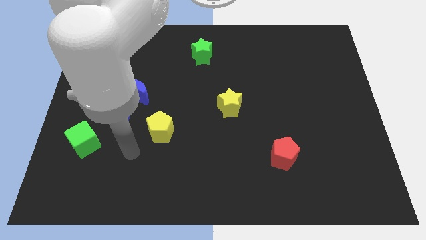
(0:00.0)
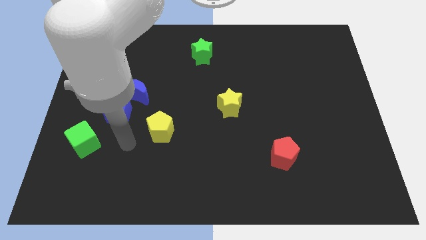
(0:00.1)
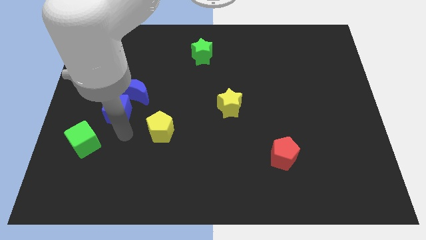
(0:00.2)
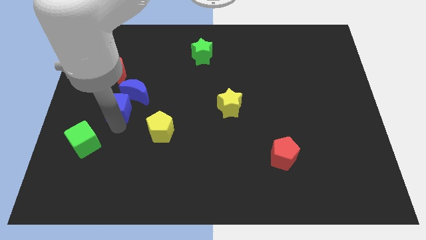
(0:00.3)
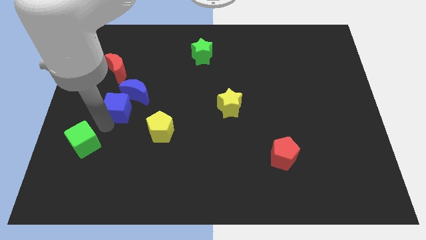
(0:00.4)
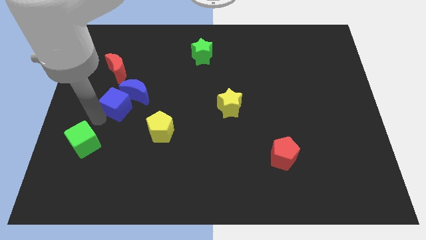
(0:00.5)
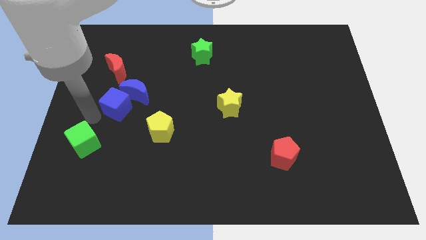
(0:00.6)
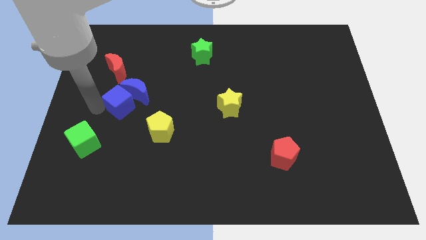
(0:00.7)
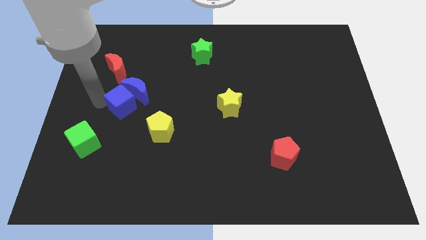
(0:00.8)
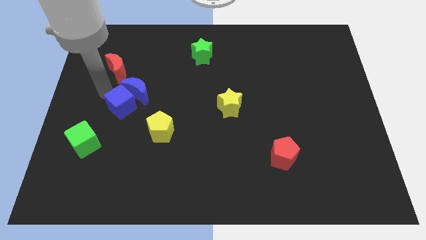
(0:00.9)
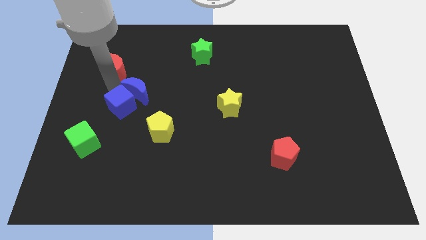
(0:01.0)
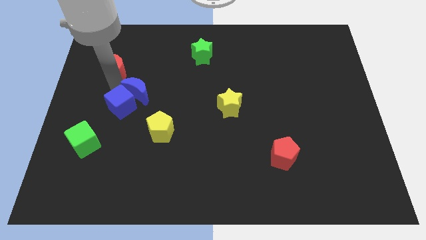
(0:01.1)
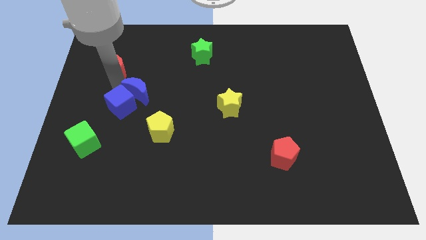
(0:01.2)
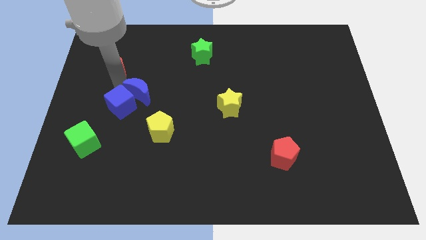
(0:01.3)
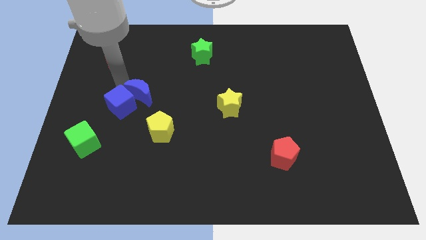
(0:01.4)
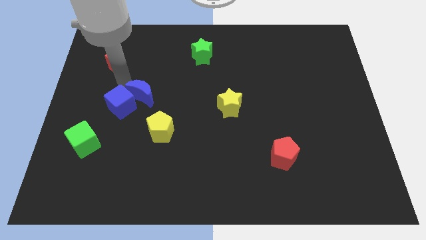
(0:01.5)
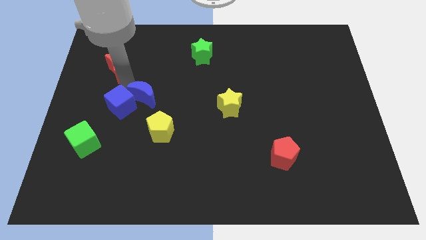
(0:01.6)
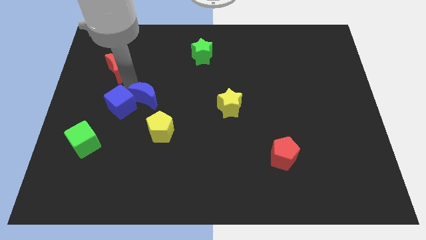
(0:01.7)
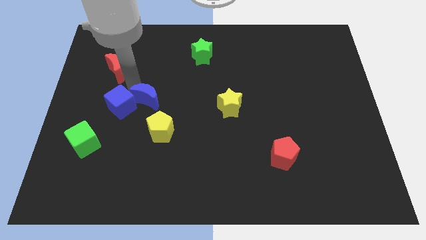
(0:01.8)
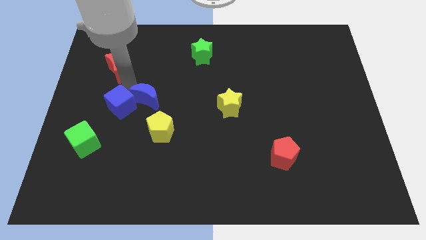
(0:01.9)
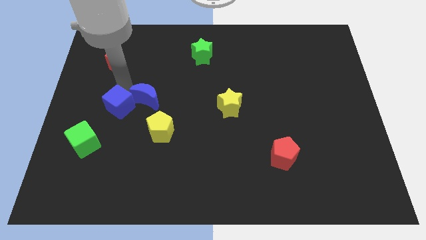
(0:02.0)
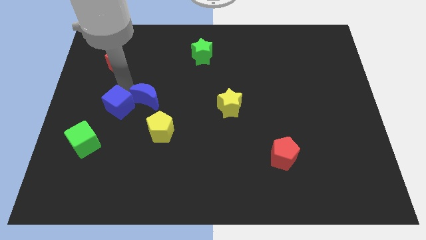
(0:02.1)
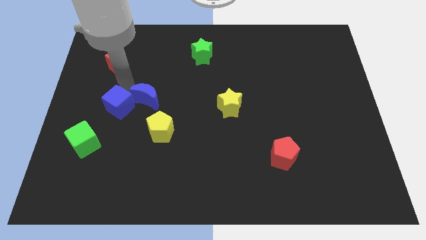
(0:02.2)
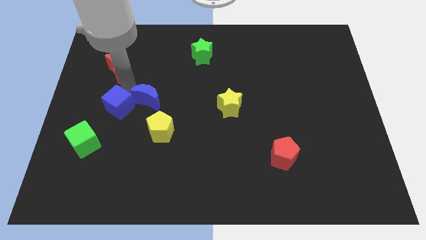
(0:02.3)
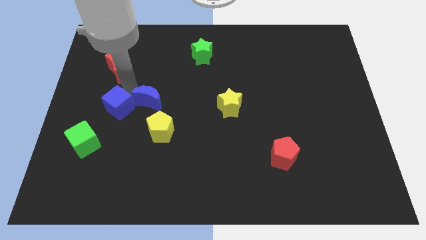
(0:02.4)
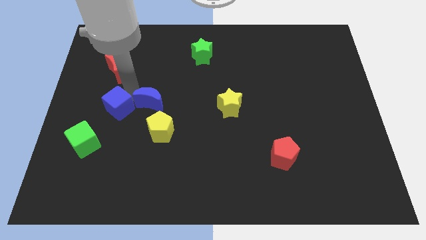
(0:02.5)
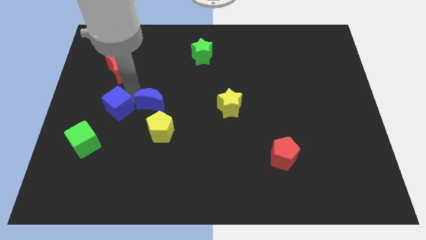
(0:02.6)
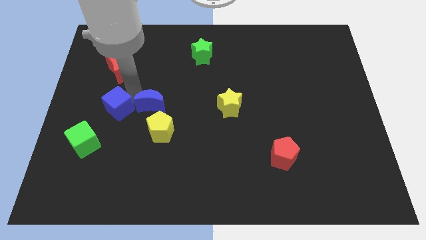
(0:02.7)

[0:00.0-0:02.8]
separate the blue moon from the blue cube and red moon

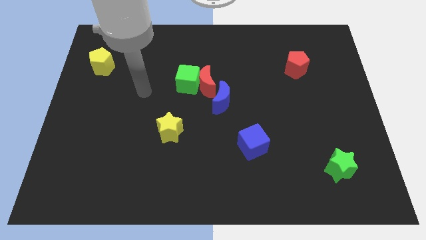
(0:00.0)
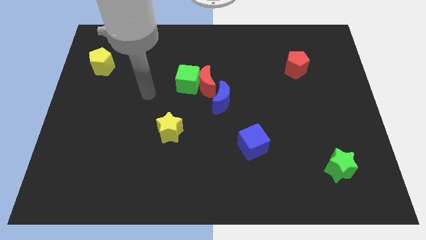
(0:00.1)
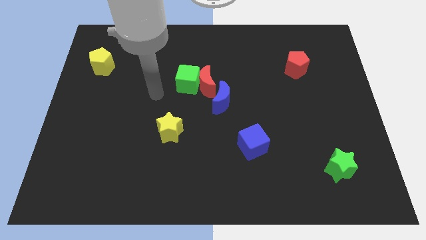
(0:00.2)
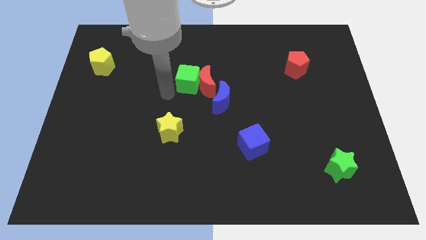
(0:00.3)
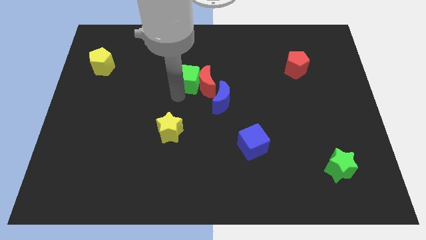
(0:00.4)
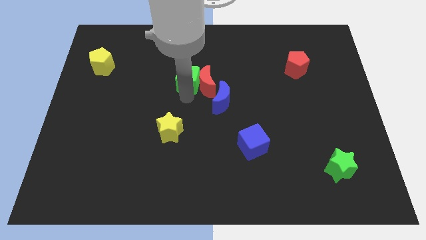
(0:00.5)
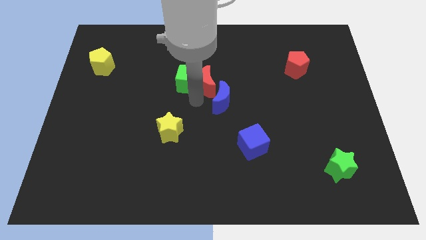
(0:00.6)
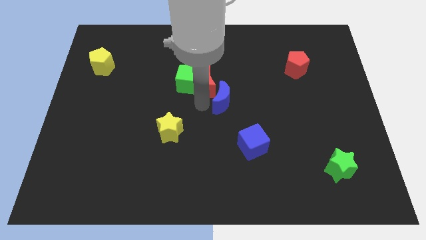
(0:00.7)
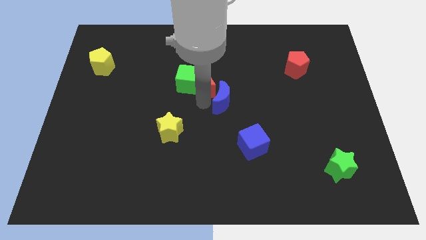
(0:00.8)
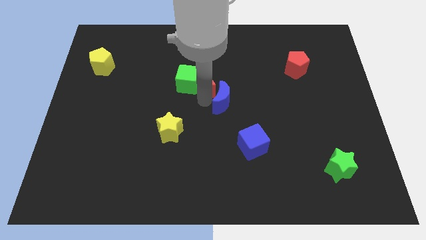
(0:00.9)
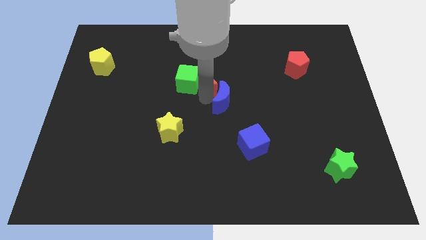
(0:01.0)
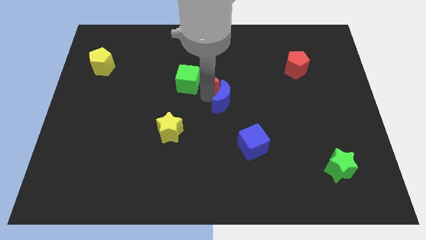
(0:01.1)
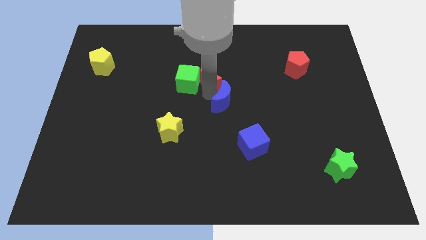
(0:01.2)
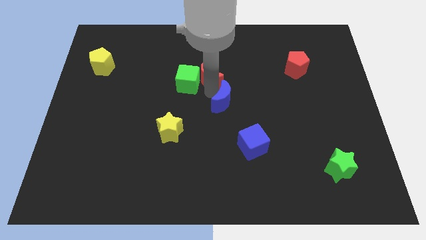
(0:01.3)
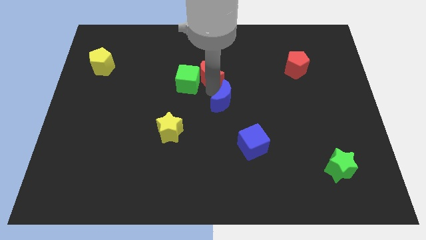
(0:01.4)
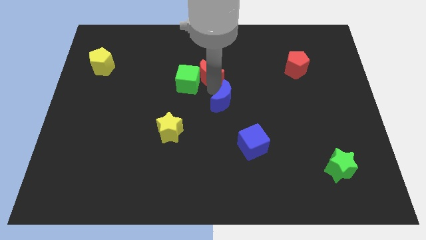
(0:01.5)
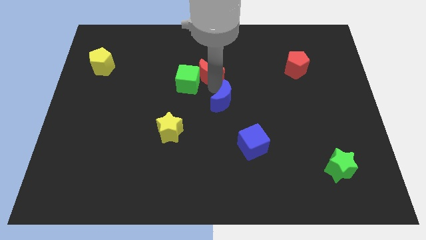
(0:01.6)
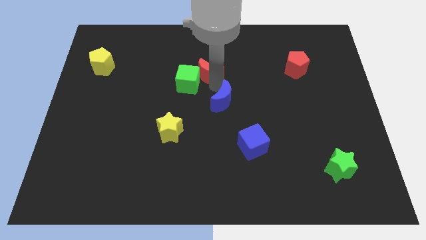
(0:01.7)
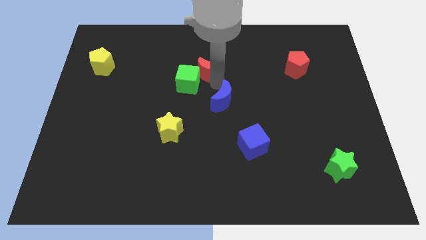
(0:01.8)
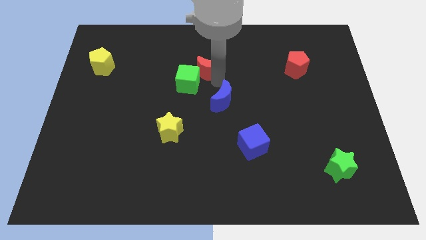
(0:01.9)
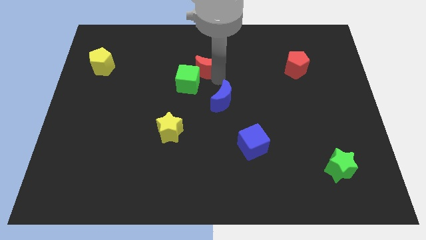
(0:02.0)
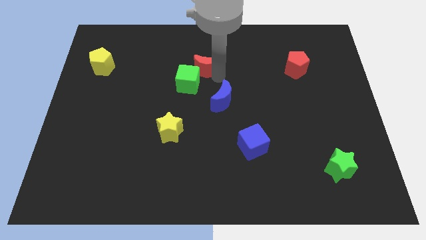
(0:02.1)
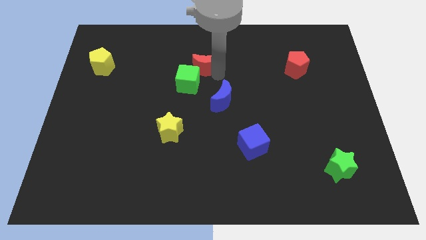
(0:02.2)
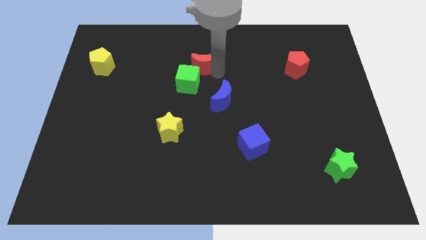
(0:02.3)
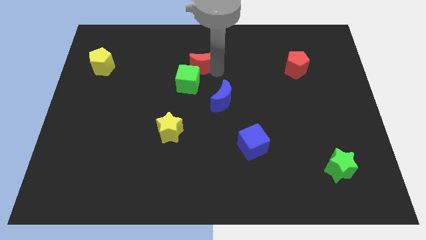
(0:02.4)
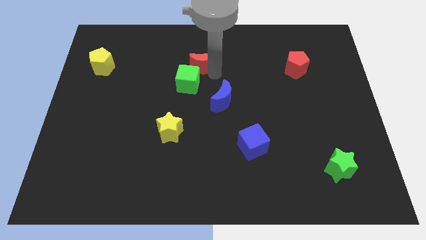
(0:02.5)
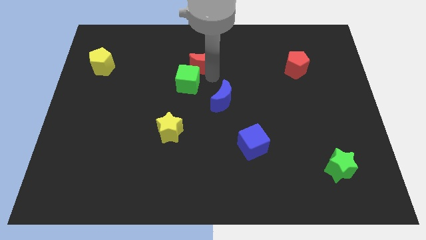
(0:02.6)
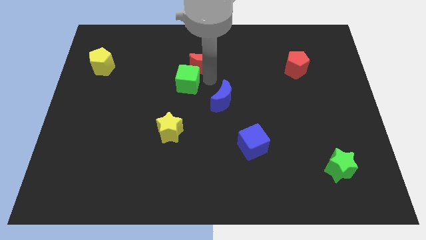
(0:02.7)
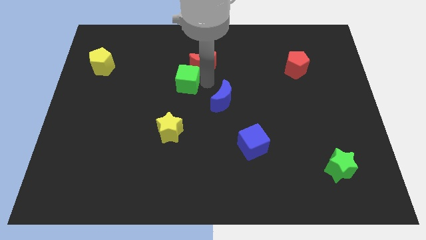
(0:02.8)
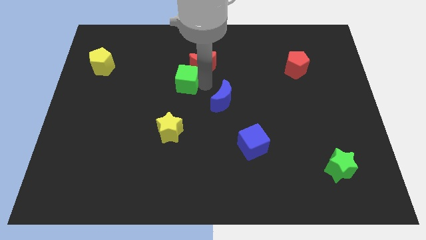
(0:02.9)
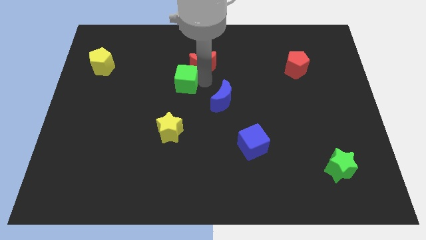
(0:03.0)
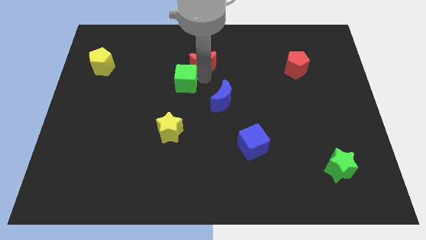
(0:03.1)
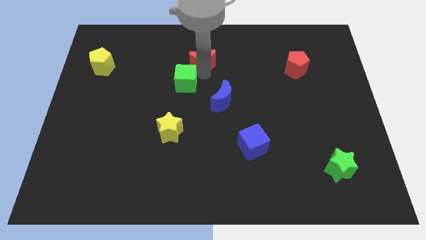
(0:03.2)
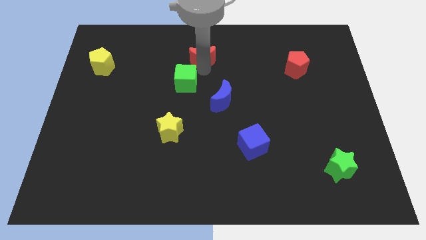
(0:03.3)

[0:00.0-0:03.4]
move the red moon away from the green cube and blue moon

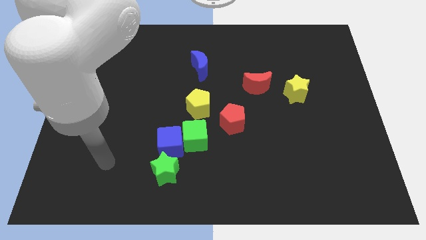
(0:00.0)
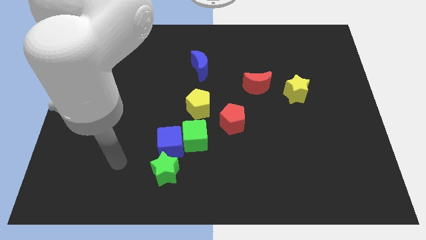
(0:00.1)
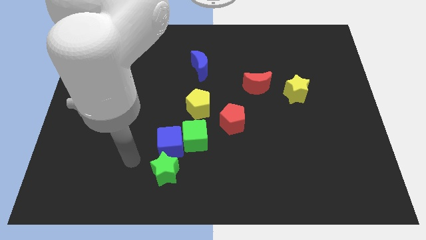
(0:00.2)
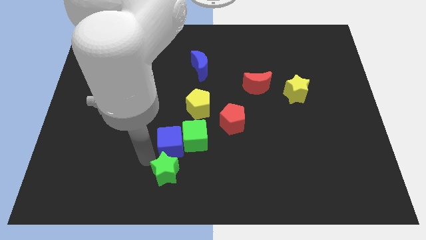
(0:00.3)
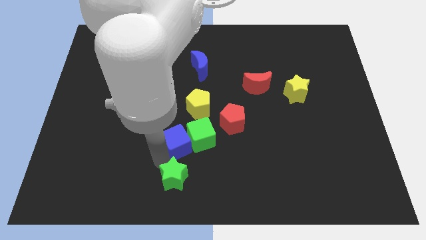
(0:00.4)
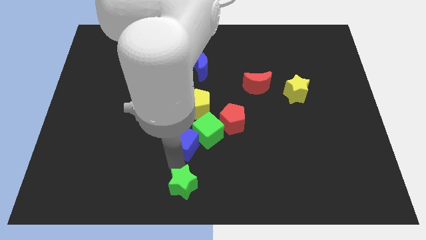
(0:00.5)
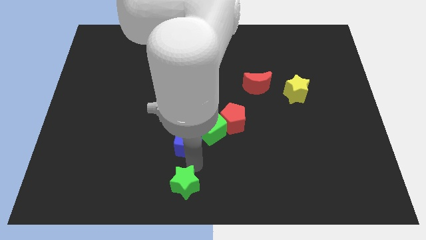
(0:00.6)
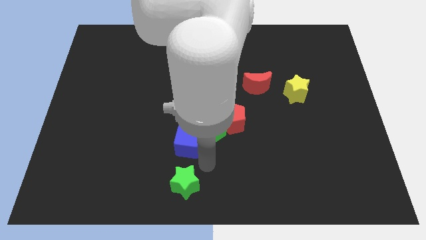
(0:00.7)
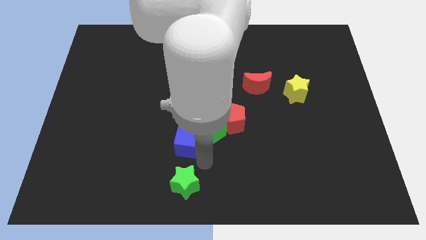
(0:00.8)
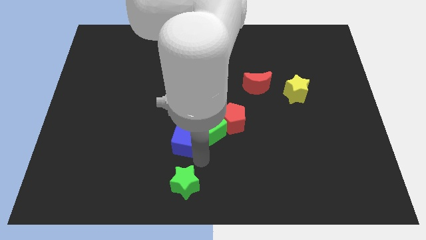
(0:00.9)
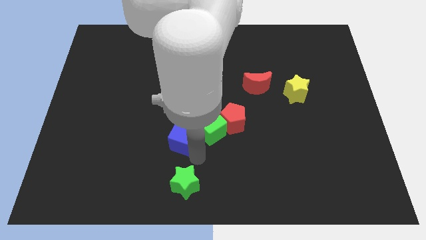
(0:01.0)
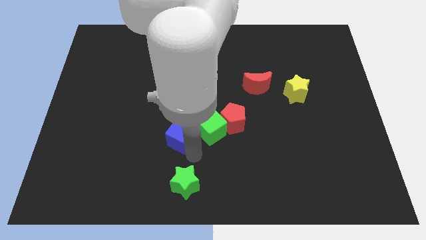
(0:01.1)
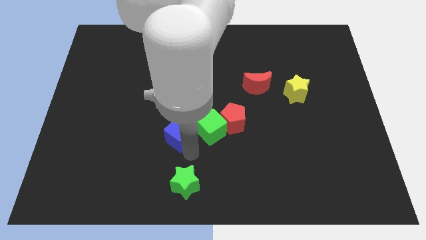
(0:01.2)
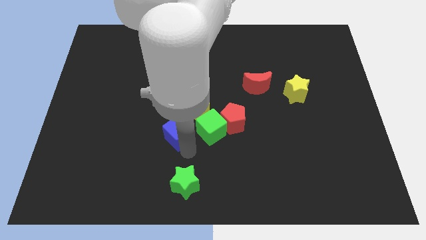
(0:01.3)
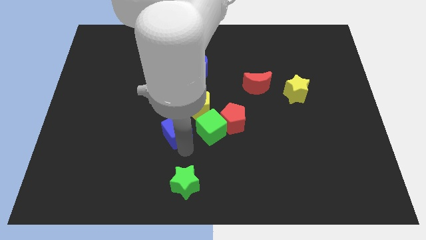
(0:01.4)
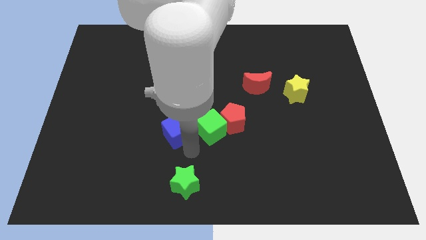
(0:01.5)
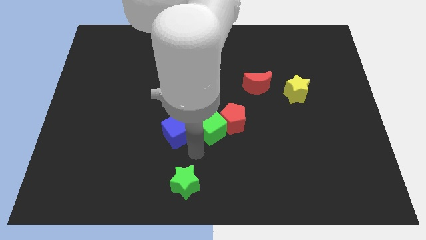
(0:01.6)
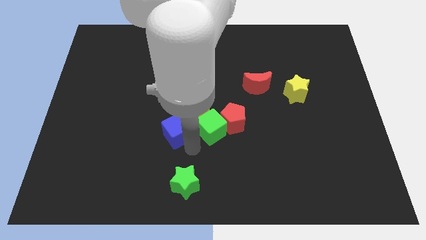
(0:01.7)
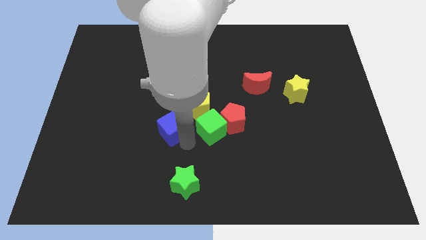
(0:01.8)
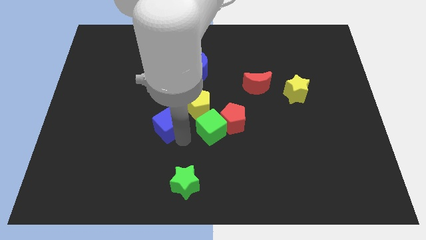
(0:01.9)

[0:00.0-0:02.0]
separate the blue cube from the green cube and green star

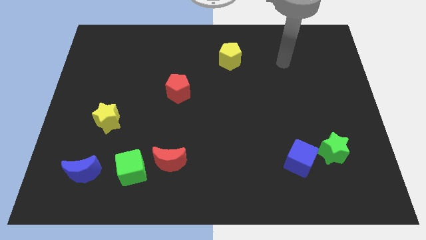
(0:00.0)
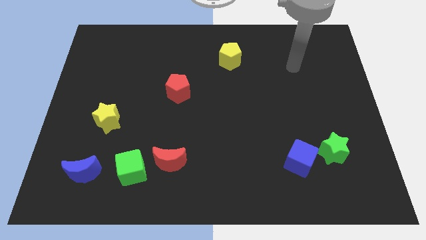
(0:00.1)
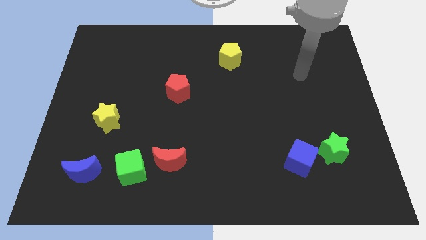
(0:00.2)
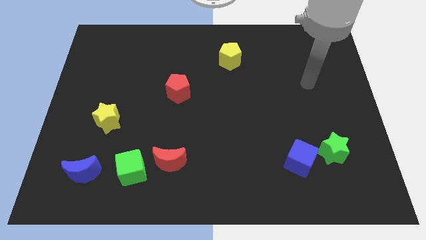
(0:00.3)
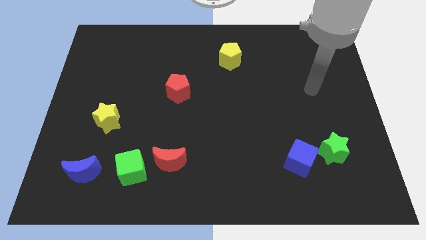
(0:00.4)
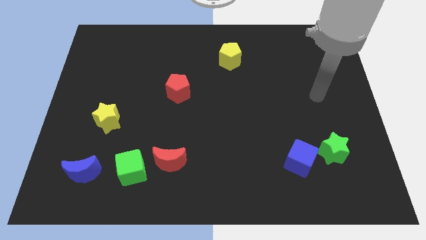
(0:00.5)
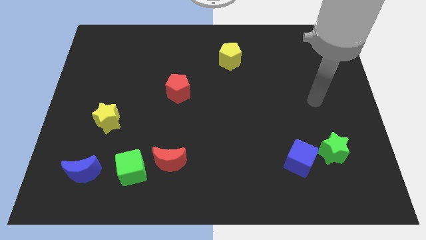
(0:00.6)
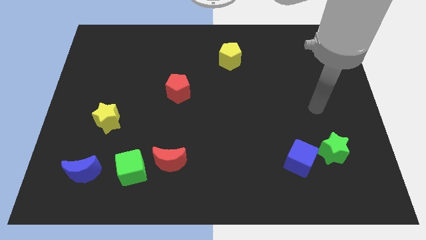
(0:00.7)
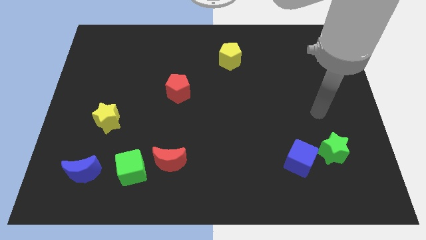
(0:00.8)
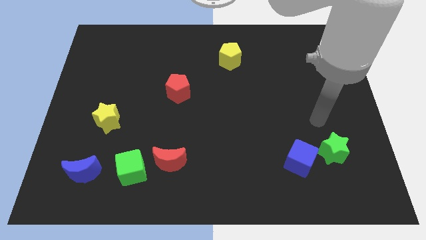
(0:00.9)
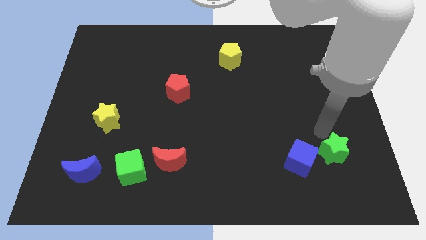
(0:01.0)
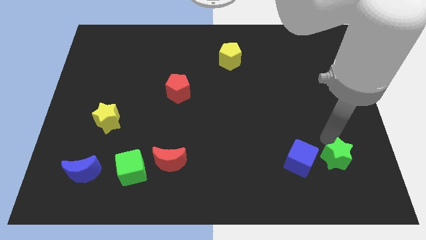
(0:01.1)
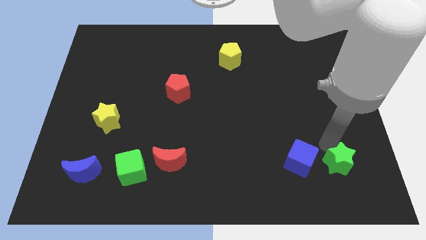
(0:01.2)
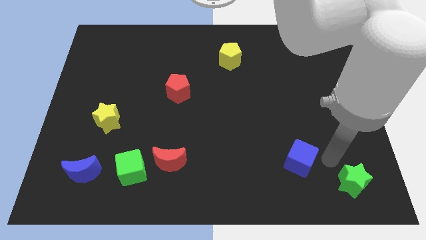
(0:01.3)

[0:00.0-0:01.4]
pull the blue cube apart from the green star
